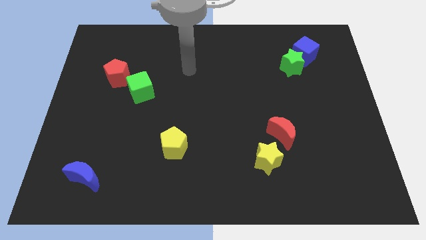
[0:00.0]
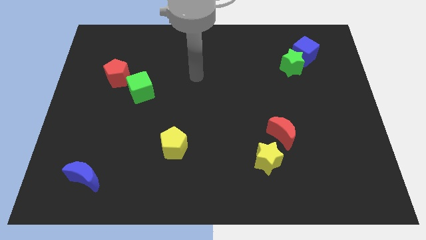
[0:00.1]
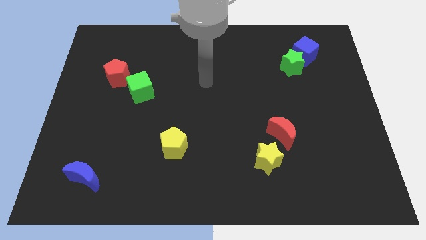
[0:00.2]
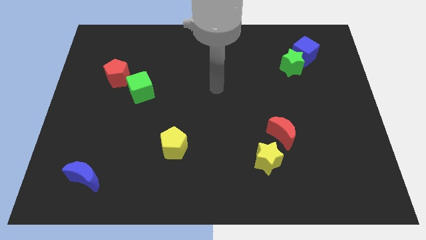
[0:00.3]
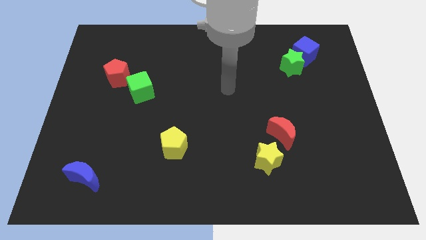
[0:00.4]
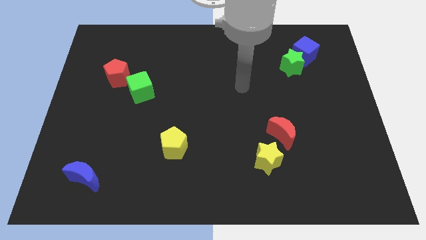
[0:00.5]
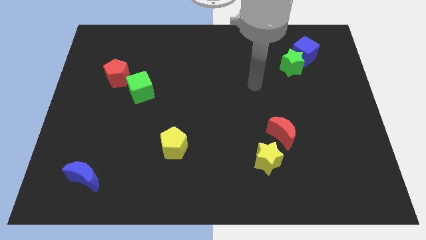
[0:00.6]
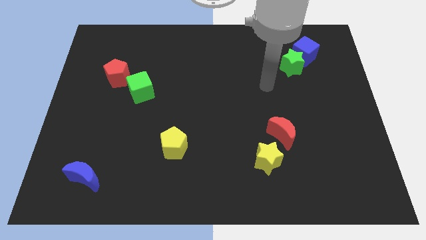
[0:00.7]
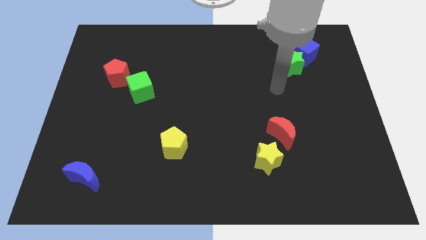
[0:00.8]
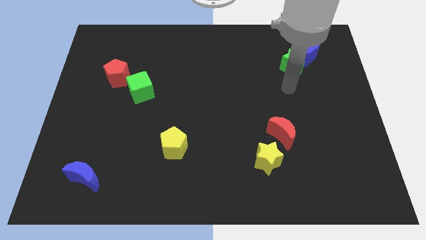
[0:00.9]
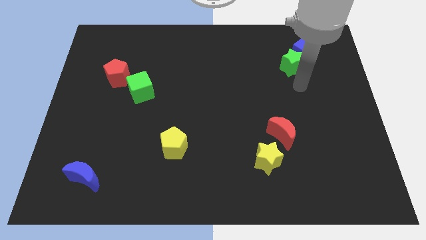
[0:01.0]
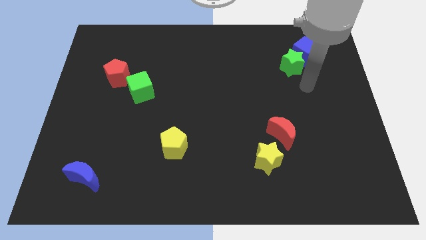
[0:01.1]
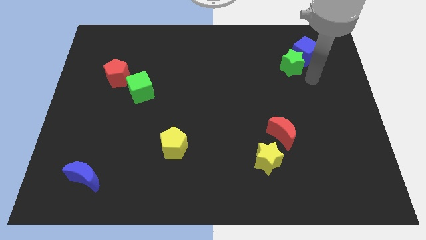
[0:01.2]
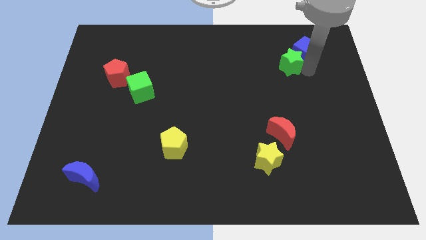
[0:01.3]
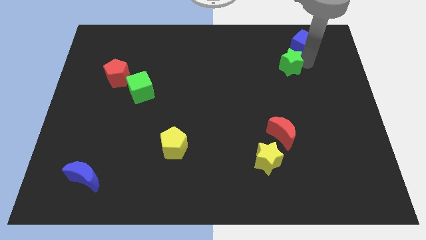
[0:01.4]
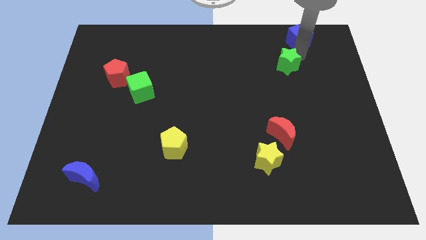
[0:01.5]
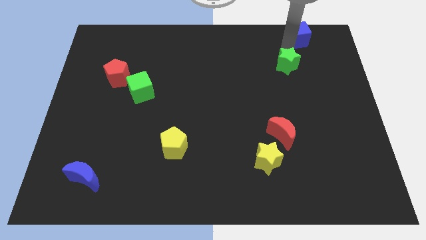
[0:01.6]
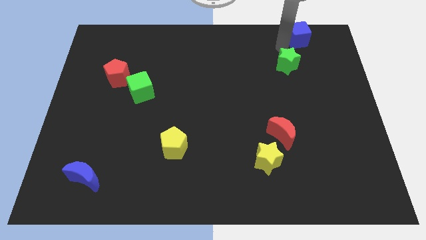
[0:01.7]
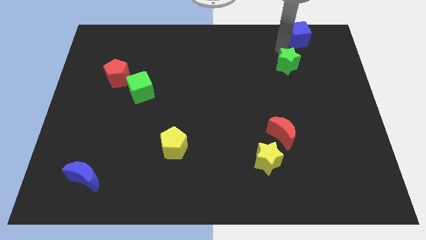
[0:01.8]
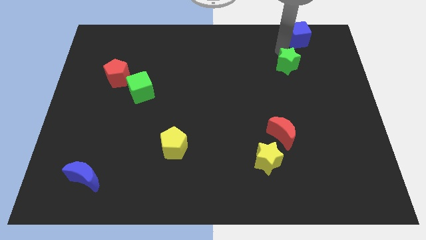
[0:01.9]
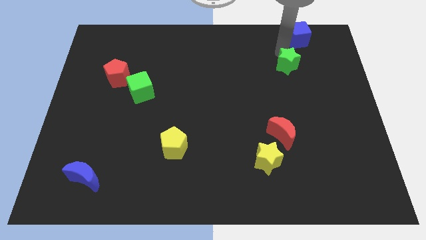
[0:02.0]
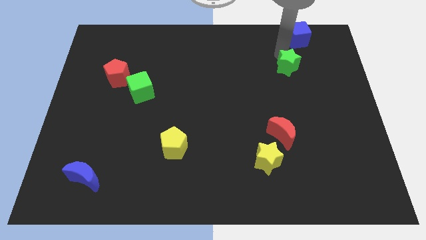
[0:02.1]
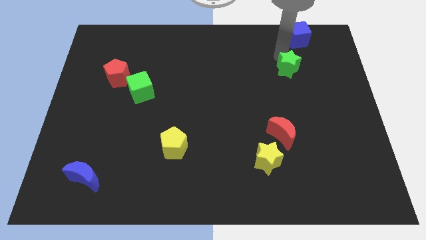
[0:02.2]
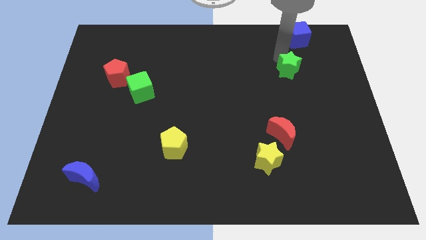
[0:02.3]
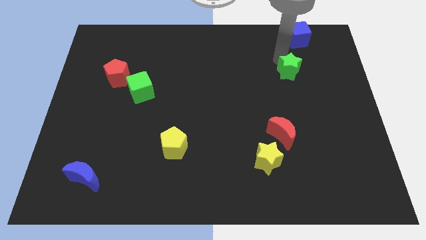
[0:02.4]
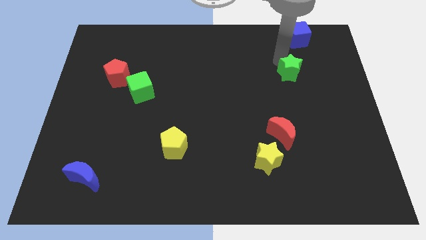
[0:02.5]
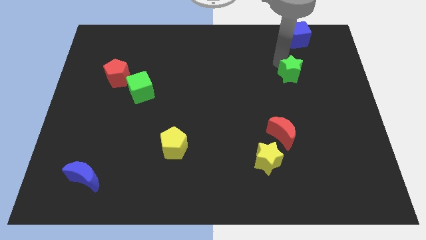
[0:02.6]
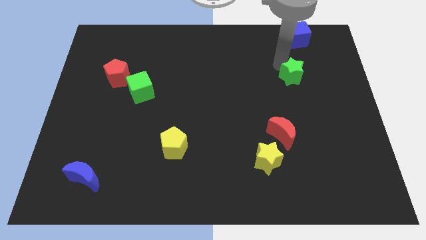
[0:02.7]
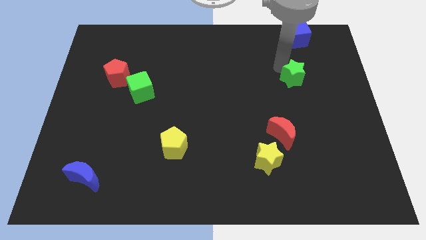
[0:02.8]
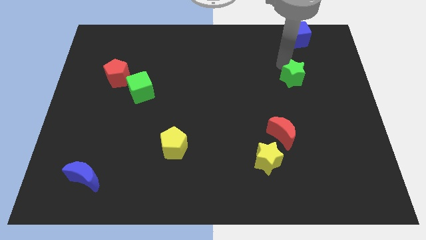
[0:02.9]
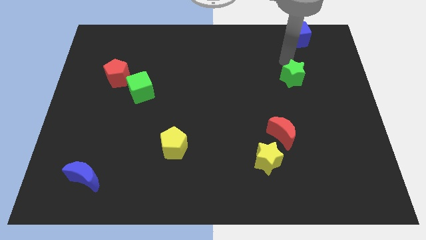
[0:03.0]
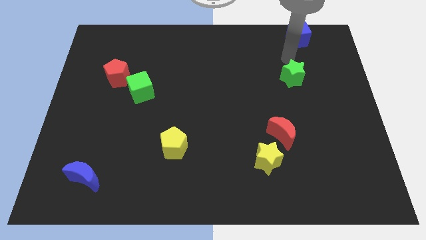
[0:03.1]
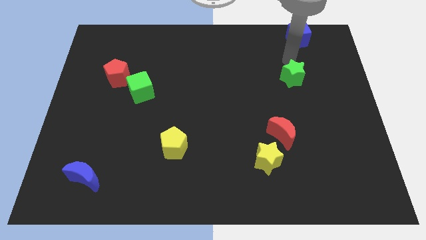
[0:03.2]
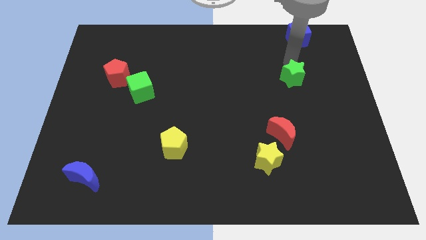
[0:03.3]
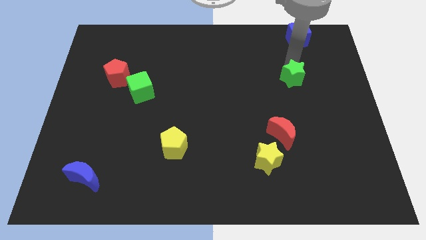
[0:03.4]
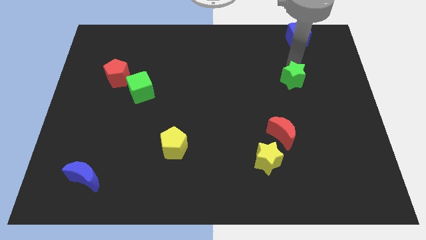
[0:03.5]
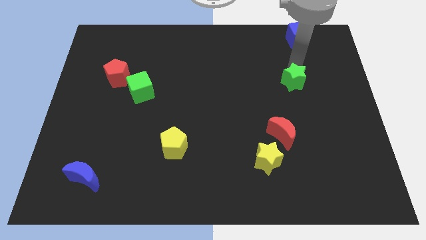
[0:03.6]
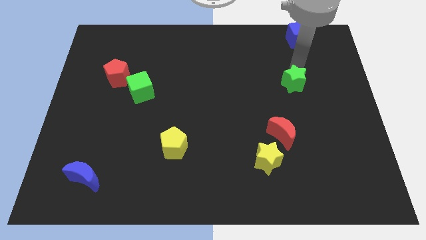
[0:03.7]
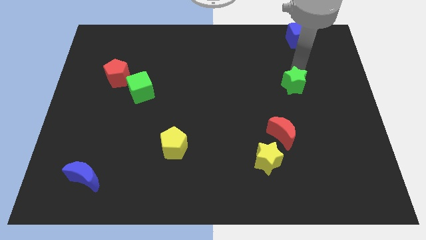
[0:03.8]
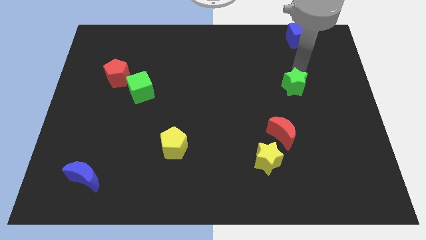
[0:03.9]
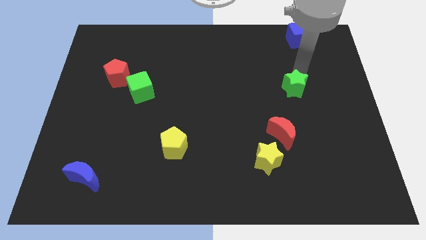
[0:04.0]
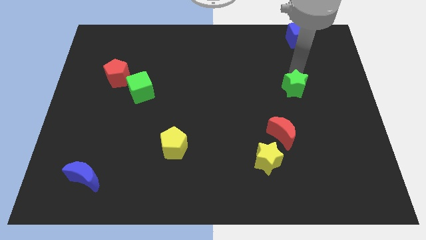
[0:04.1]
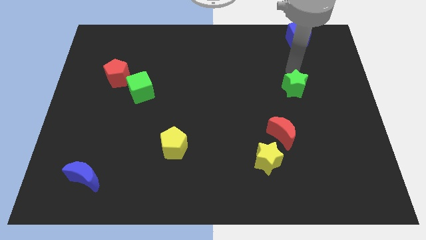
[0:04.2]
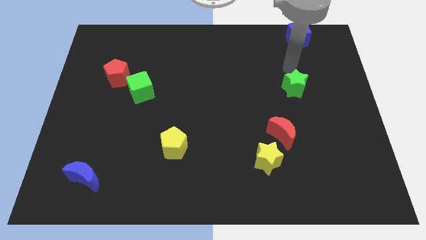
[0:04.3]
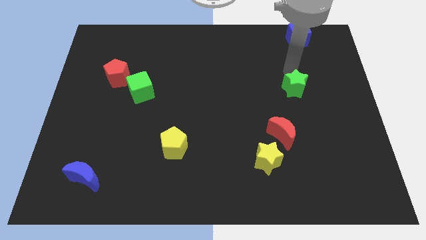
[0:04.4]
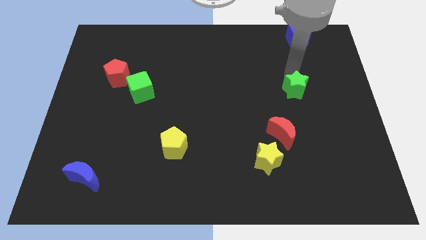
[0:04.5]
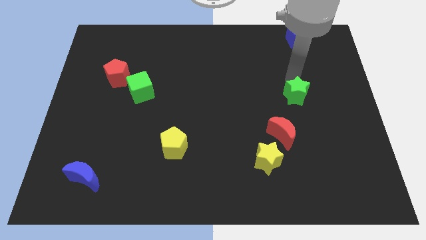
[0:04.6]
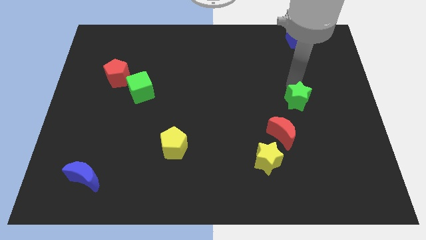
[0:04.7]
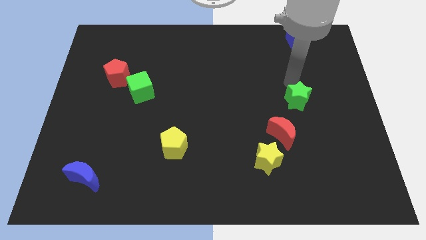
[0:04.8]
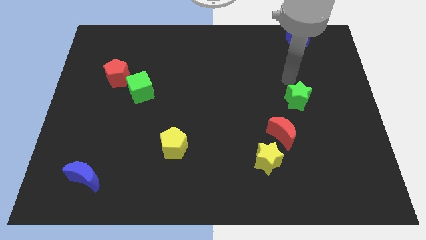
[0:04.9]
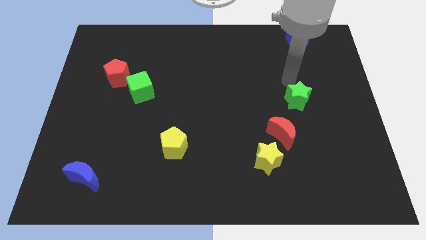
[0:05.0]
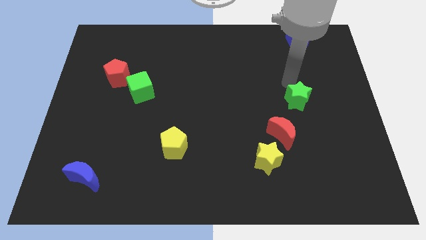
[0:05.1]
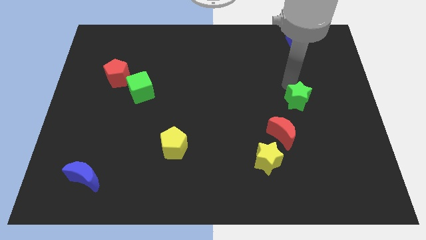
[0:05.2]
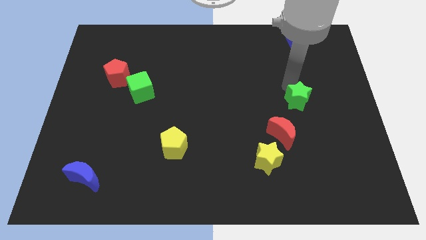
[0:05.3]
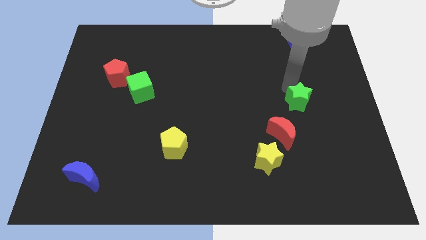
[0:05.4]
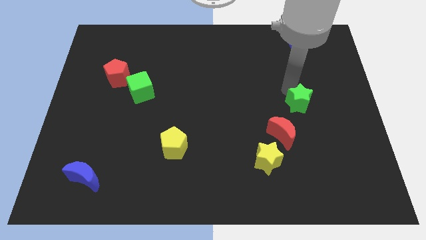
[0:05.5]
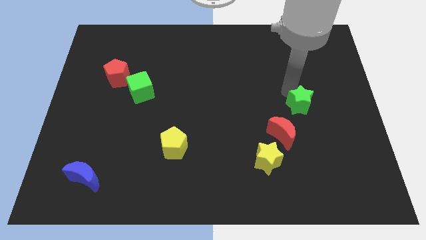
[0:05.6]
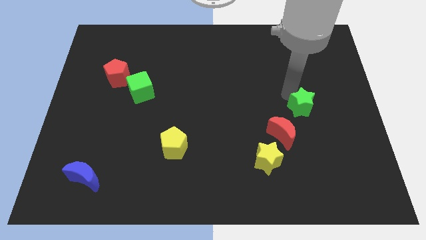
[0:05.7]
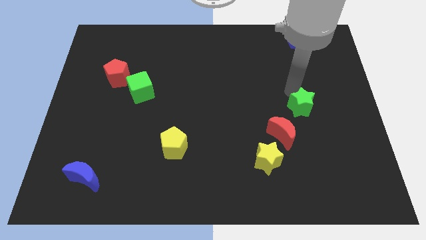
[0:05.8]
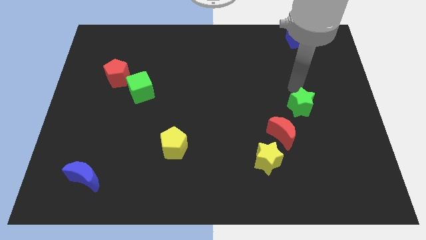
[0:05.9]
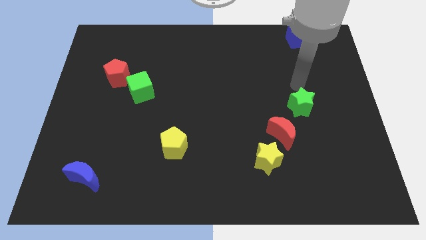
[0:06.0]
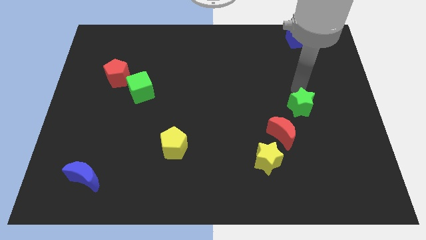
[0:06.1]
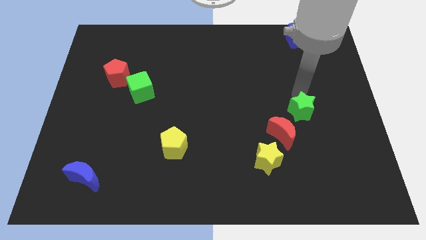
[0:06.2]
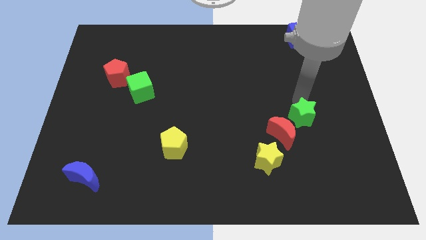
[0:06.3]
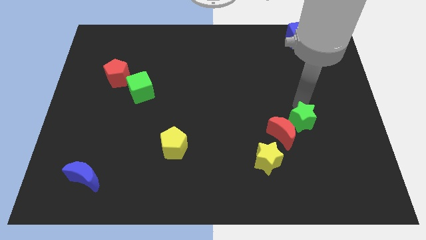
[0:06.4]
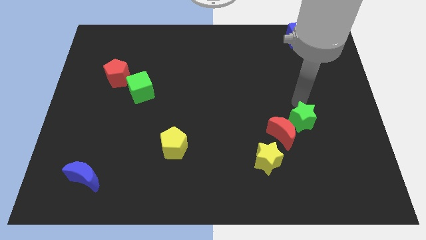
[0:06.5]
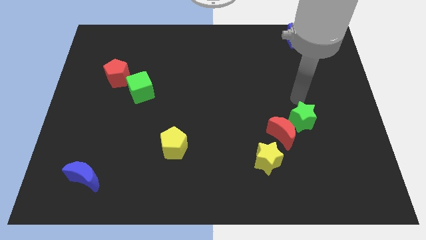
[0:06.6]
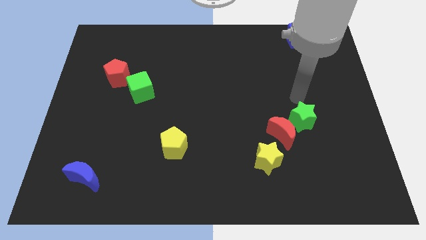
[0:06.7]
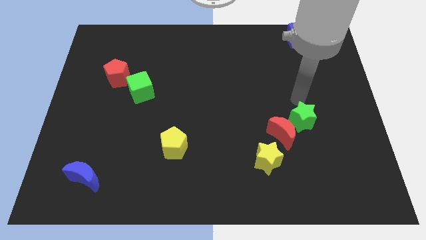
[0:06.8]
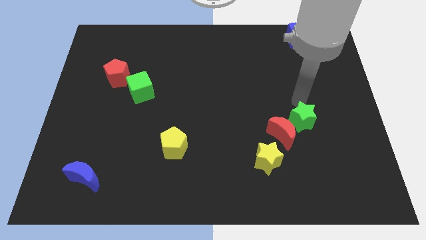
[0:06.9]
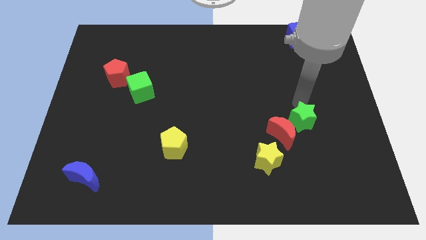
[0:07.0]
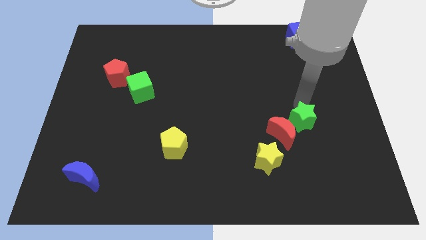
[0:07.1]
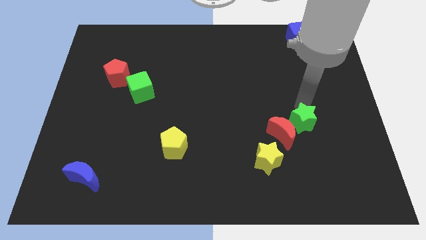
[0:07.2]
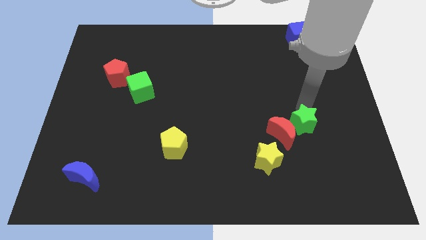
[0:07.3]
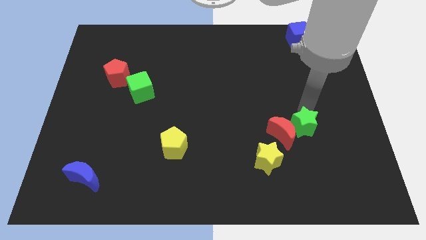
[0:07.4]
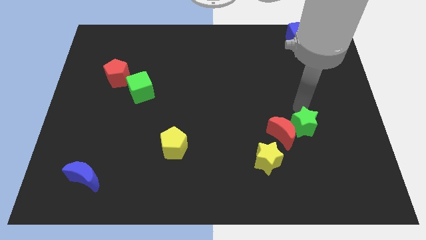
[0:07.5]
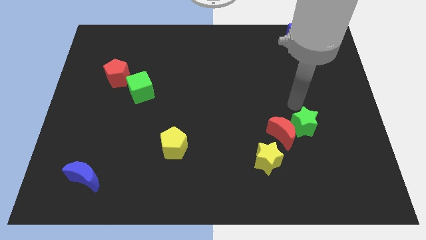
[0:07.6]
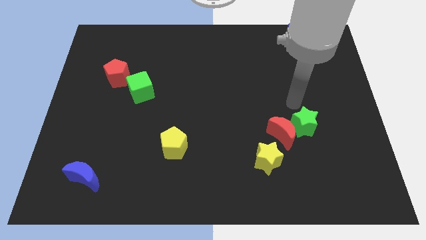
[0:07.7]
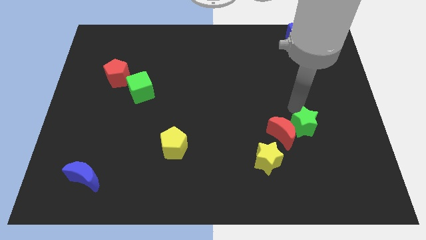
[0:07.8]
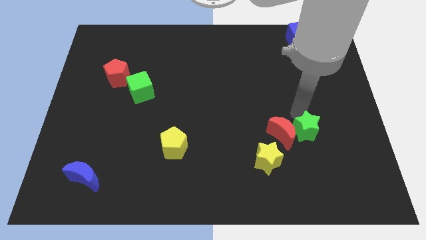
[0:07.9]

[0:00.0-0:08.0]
move the green star downwards
